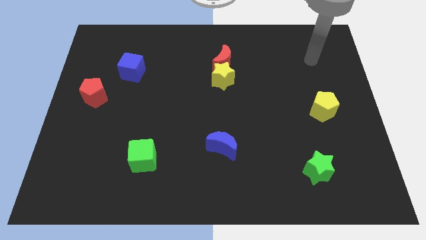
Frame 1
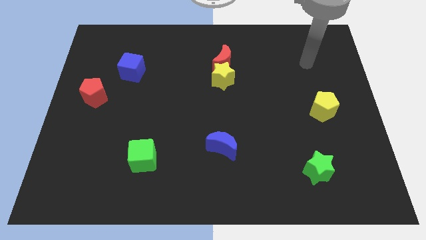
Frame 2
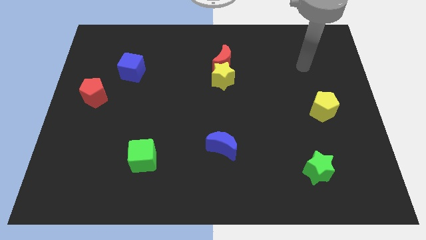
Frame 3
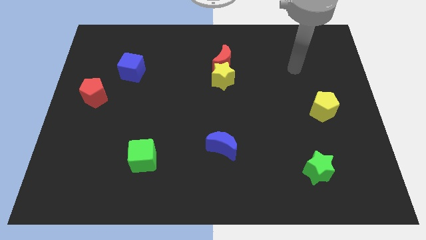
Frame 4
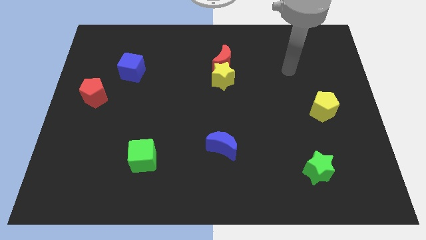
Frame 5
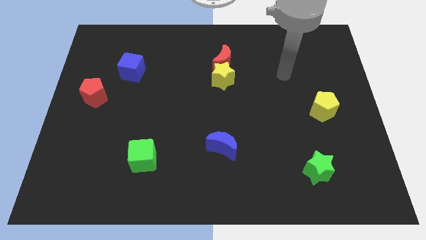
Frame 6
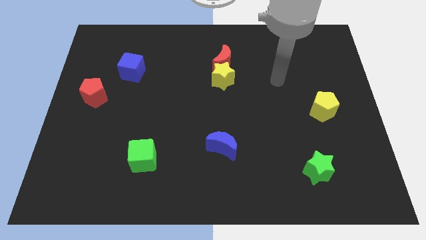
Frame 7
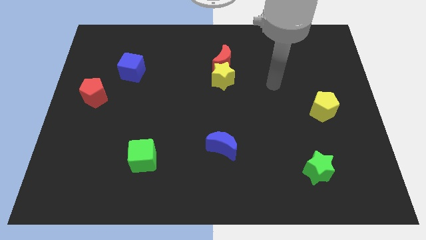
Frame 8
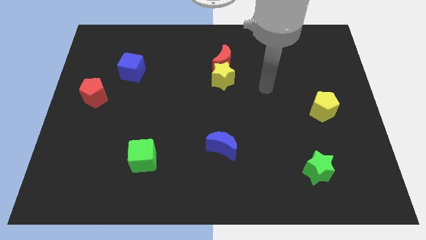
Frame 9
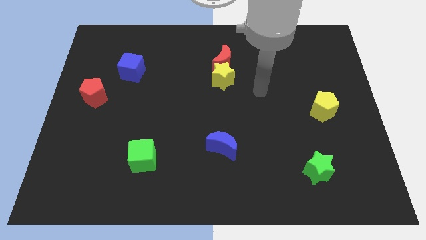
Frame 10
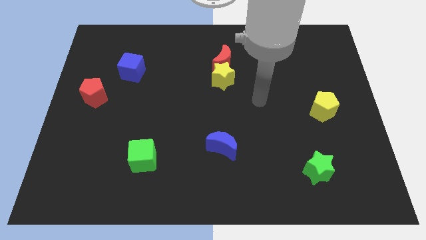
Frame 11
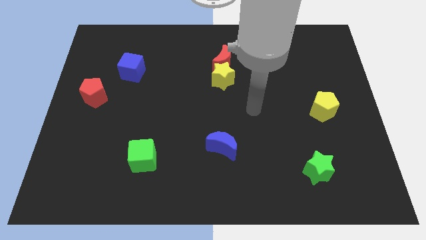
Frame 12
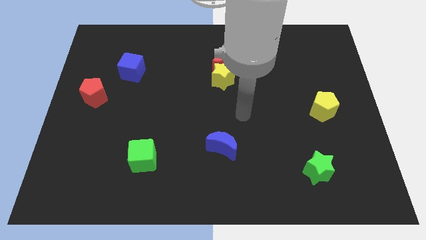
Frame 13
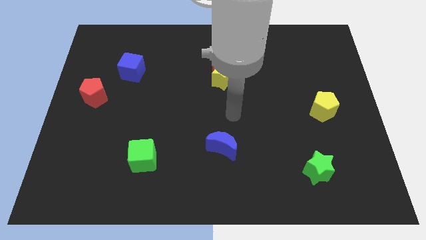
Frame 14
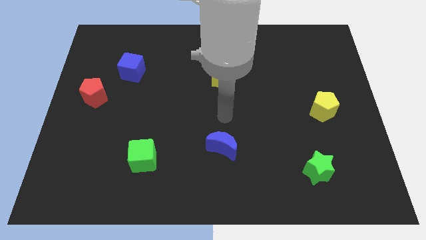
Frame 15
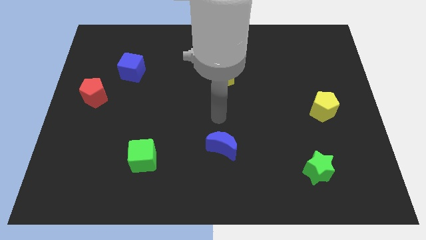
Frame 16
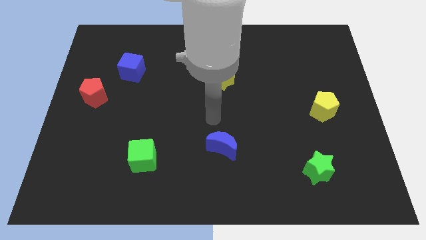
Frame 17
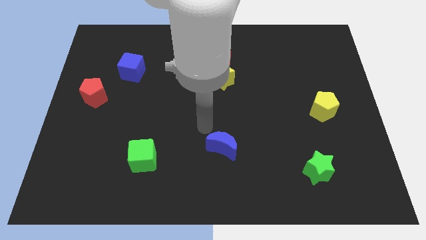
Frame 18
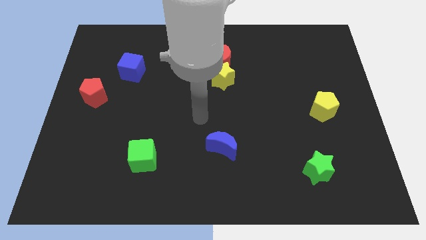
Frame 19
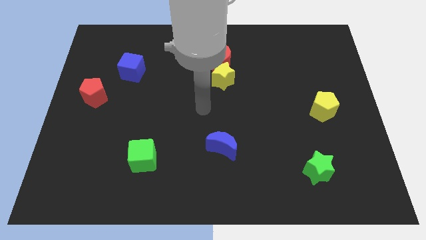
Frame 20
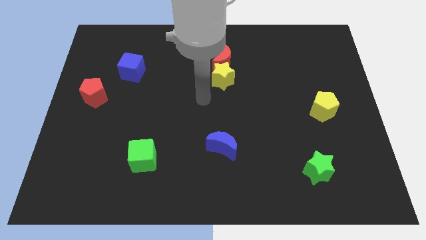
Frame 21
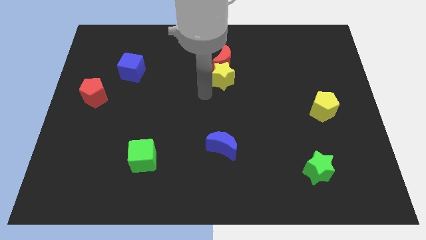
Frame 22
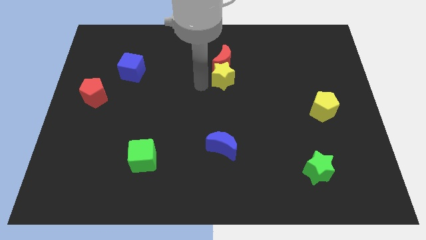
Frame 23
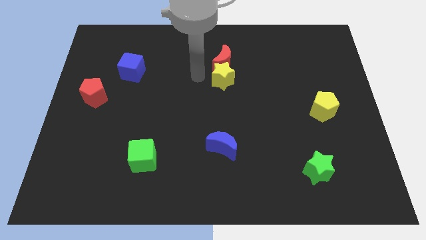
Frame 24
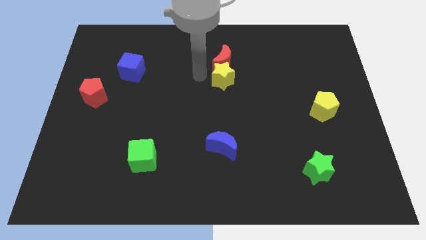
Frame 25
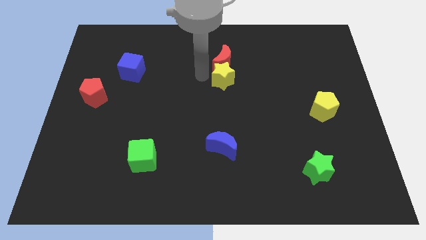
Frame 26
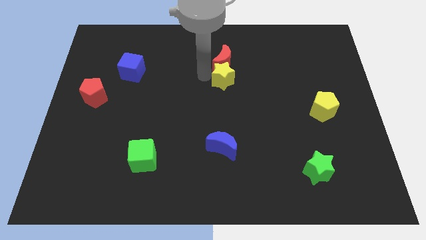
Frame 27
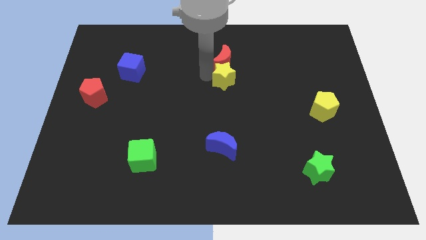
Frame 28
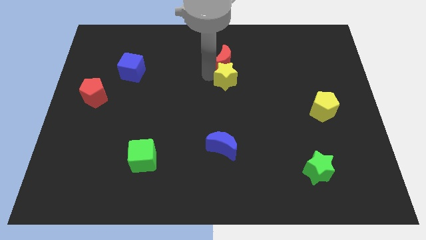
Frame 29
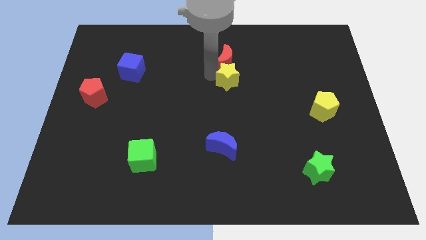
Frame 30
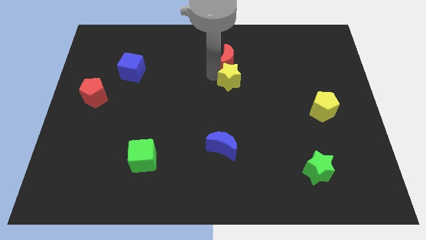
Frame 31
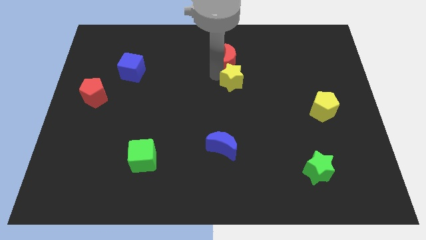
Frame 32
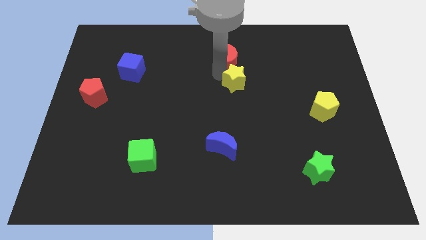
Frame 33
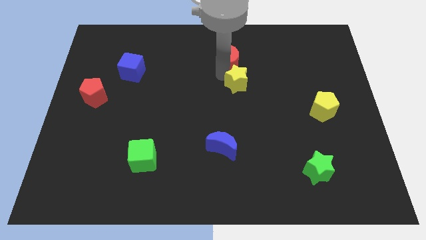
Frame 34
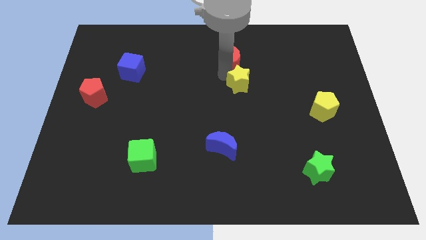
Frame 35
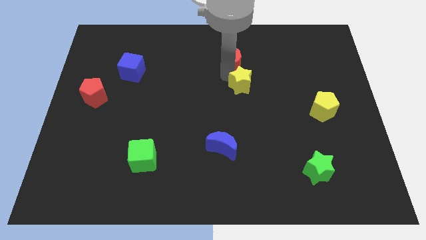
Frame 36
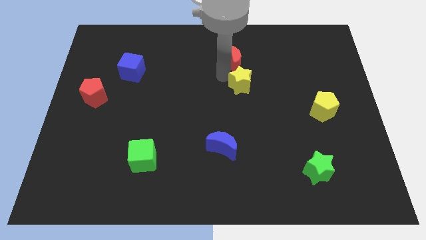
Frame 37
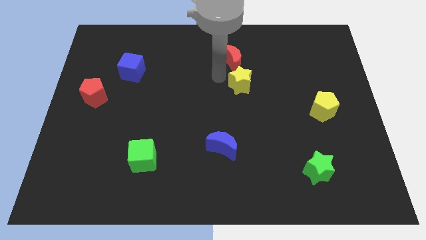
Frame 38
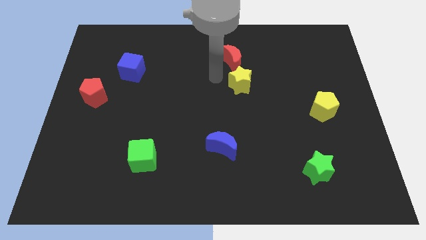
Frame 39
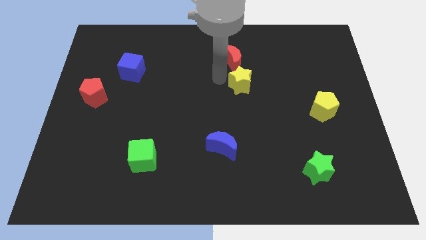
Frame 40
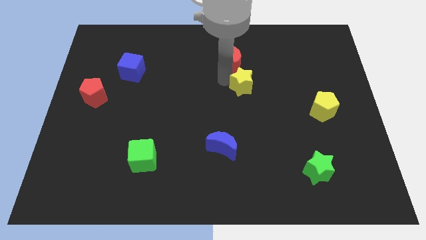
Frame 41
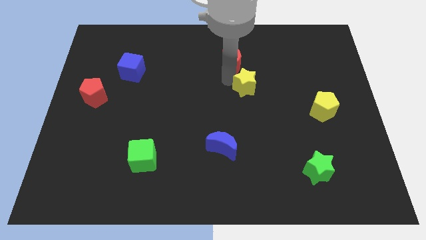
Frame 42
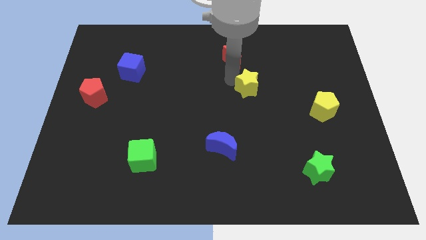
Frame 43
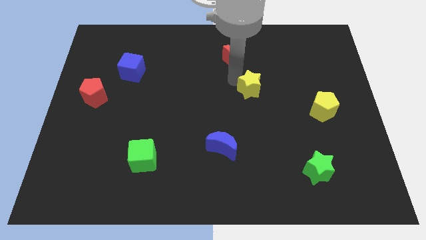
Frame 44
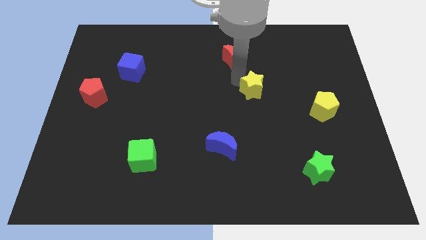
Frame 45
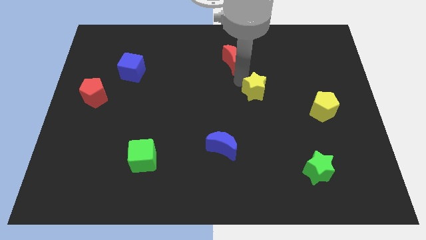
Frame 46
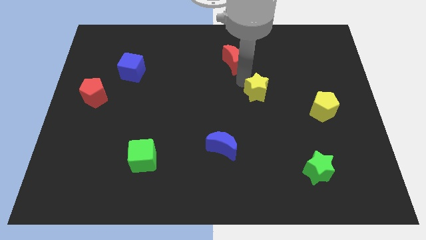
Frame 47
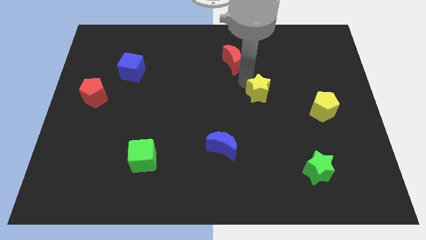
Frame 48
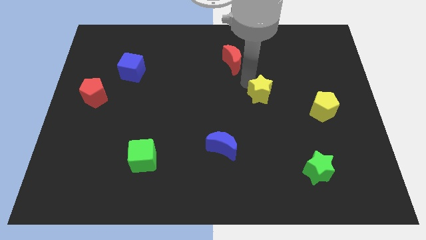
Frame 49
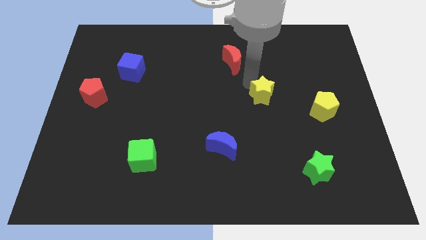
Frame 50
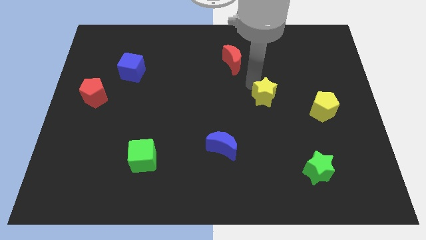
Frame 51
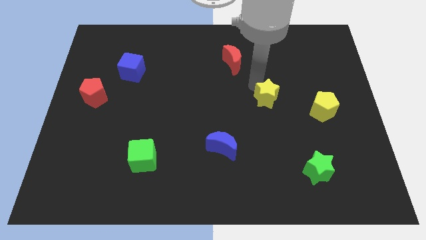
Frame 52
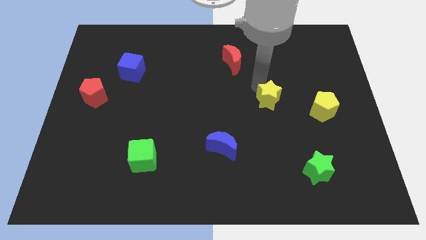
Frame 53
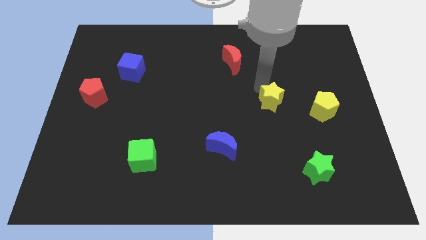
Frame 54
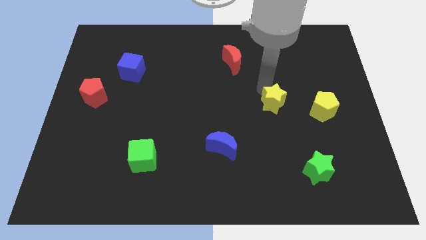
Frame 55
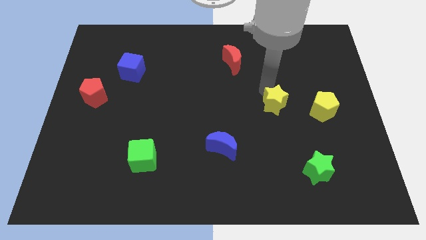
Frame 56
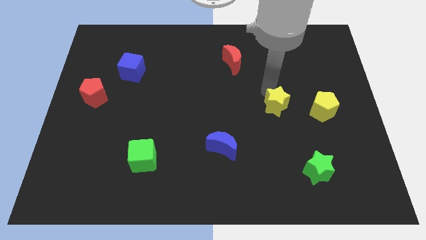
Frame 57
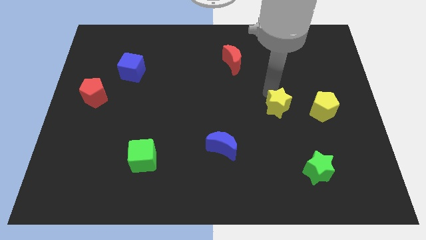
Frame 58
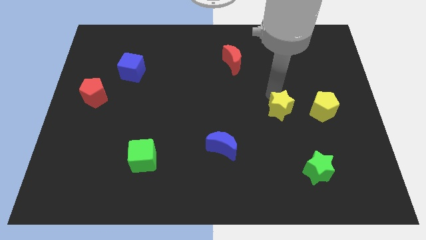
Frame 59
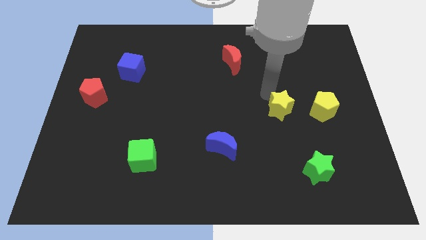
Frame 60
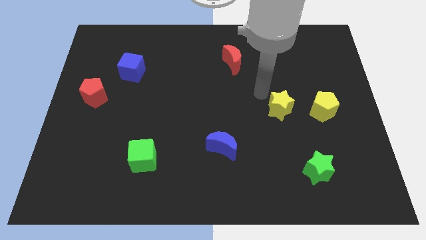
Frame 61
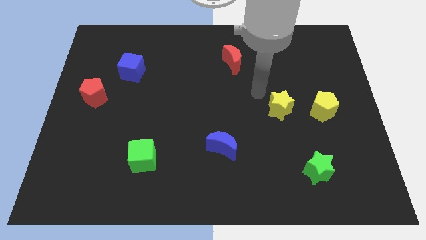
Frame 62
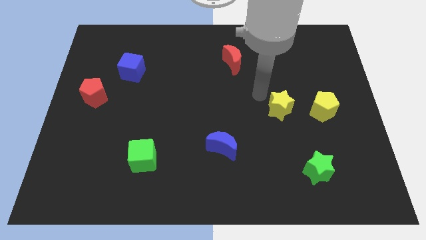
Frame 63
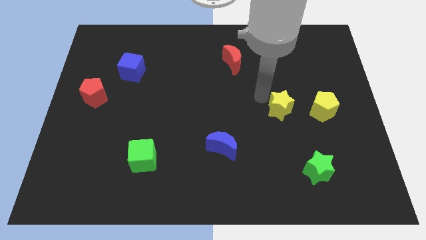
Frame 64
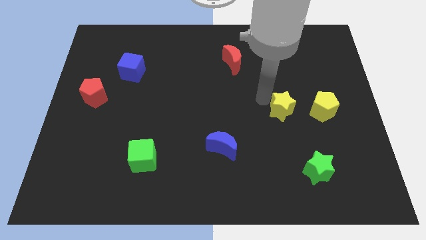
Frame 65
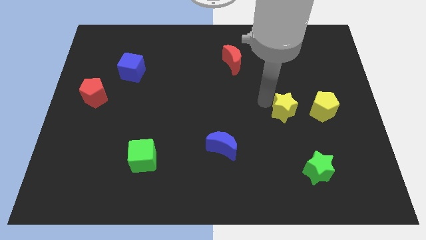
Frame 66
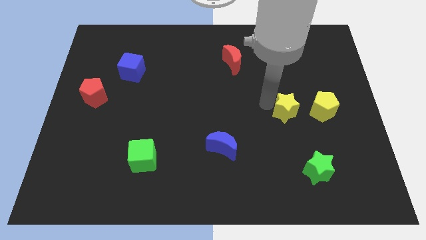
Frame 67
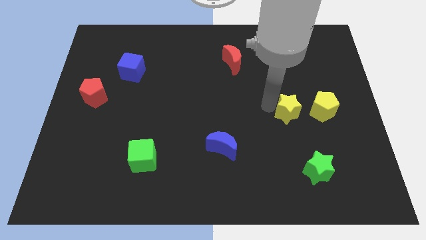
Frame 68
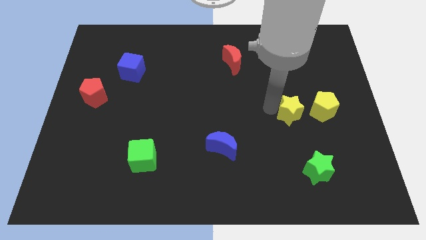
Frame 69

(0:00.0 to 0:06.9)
push the yellow star to the bottom left of the yellow pentagon

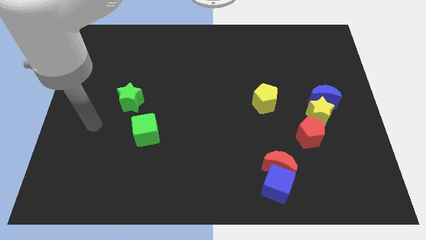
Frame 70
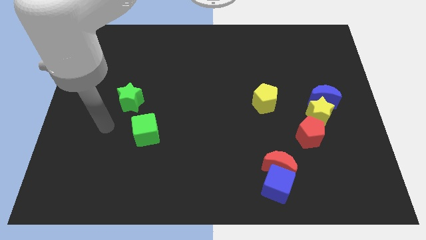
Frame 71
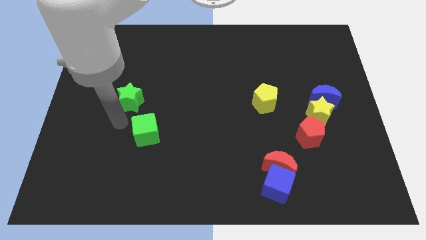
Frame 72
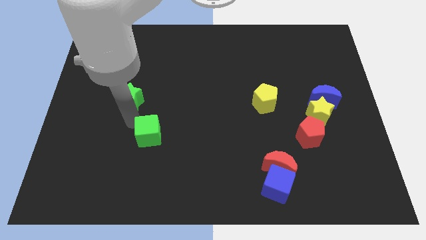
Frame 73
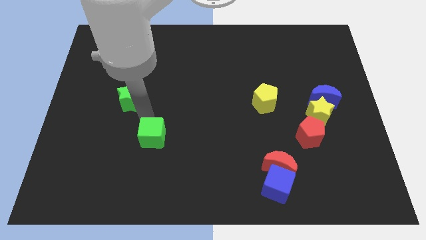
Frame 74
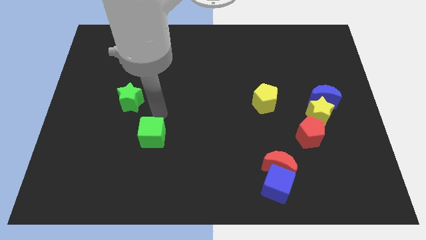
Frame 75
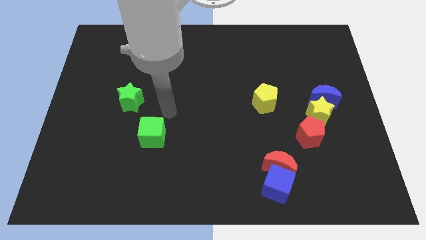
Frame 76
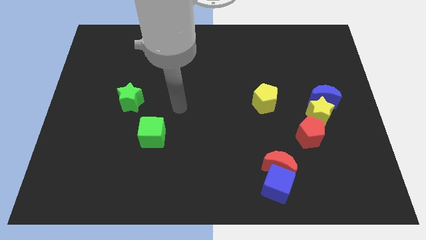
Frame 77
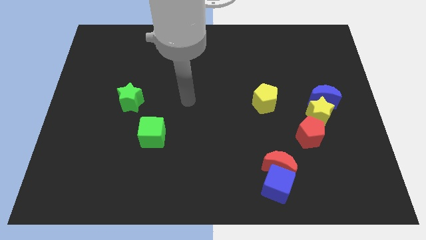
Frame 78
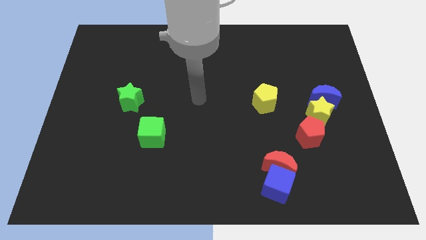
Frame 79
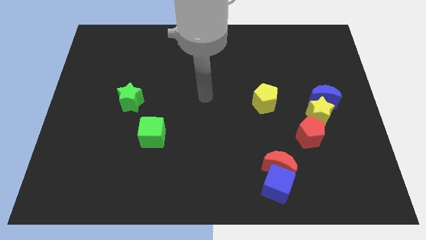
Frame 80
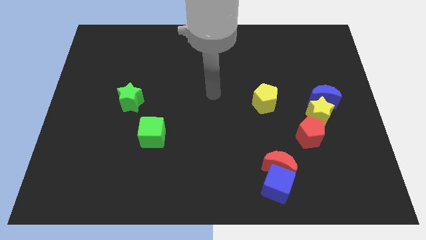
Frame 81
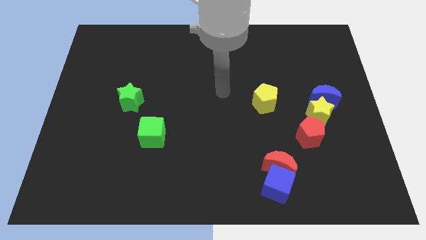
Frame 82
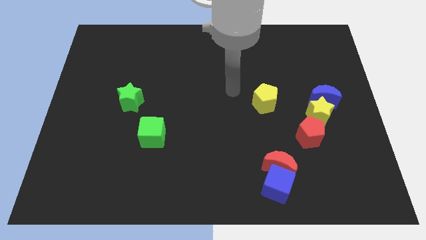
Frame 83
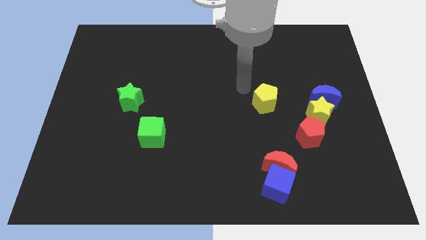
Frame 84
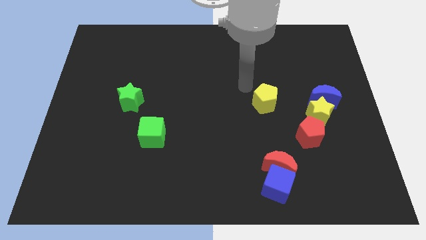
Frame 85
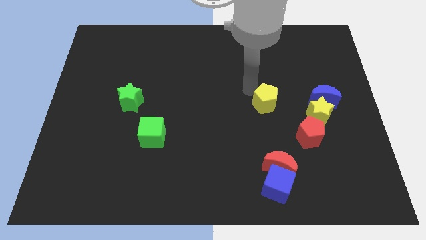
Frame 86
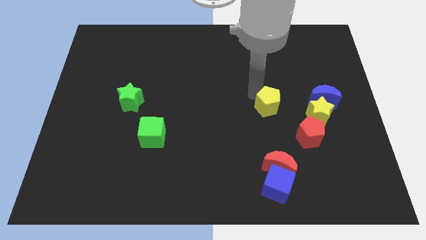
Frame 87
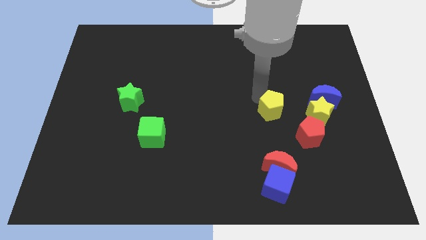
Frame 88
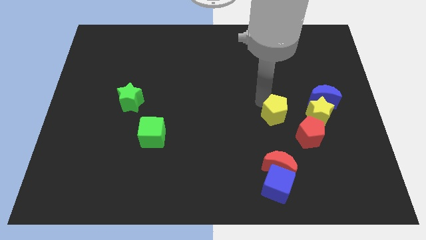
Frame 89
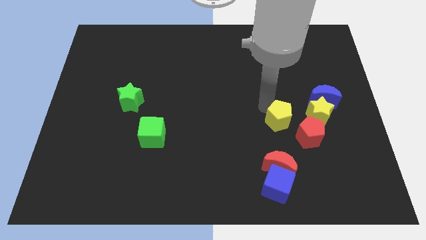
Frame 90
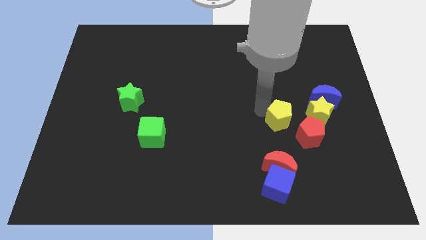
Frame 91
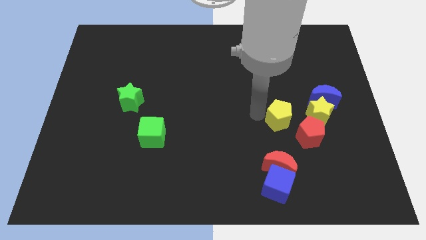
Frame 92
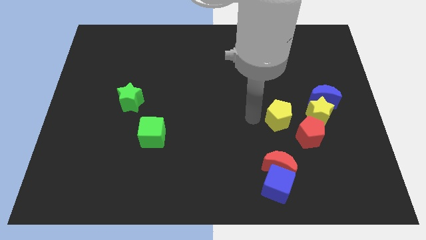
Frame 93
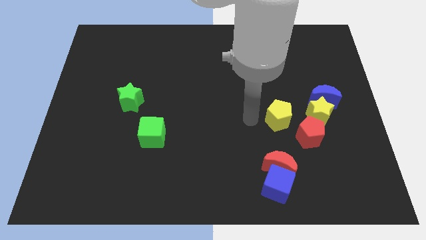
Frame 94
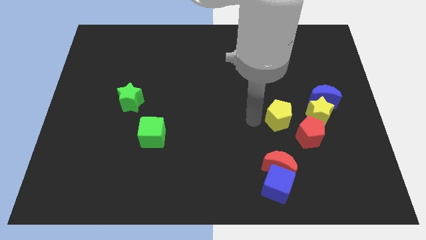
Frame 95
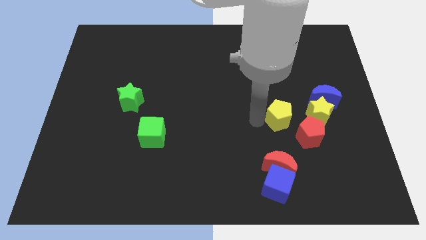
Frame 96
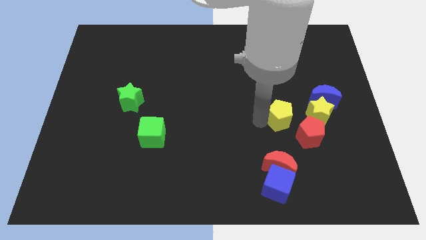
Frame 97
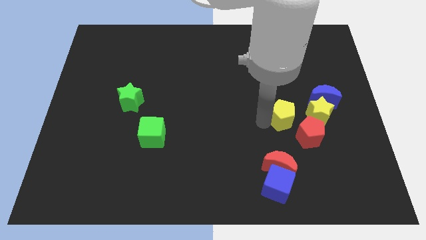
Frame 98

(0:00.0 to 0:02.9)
put the yellow pentagon to the bottom left of the blue moon
